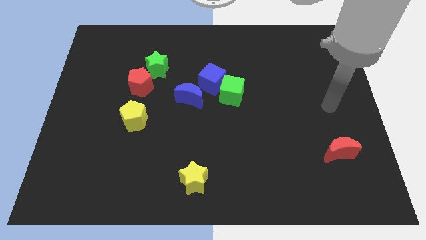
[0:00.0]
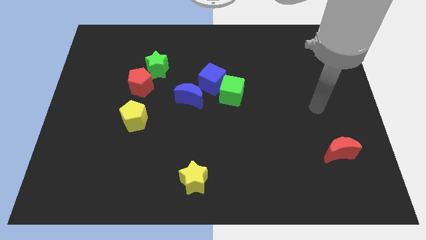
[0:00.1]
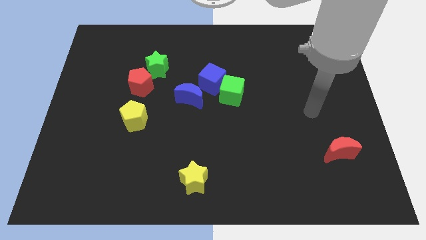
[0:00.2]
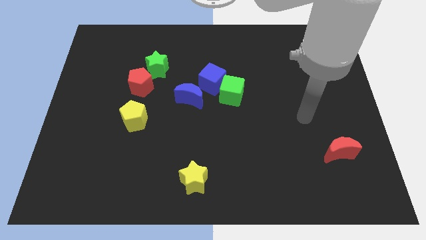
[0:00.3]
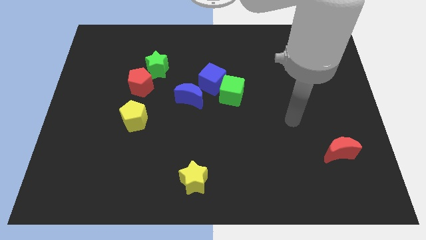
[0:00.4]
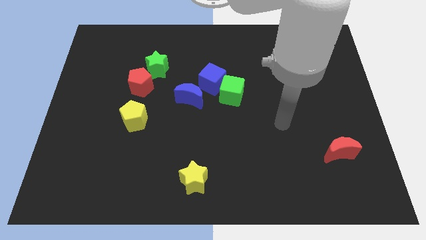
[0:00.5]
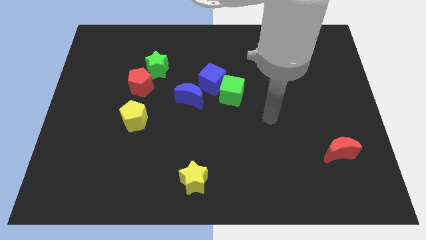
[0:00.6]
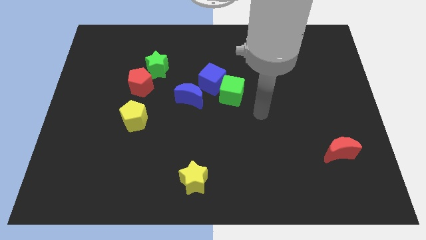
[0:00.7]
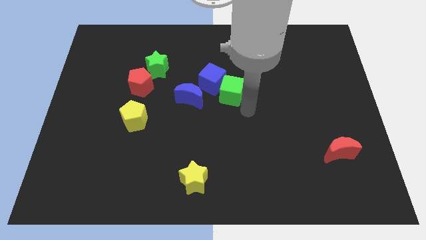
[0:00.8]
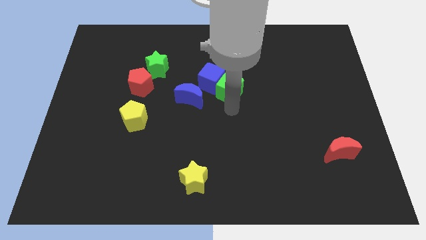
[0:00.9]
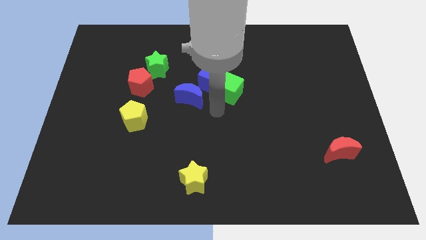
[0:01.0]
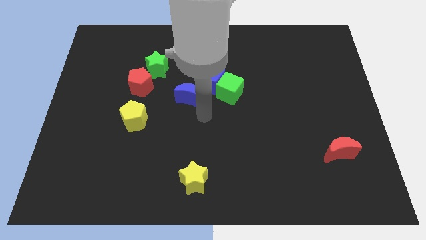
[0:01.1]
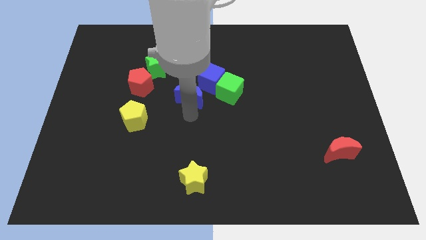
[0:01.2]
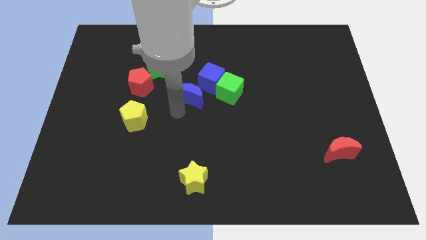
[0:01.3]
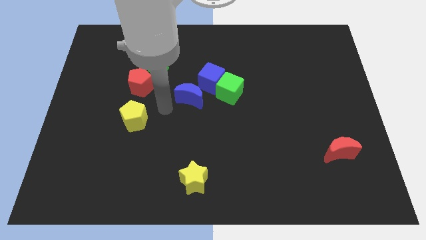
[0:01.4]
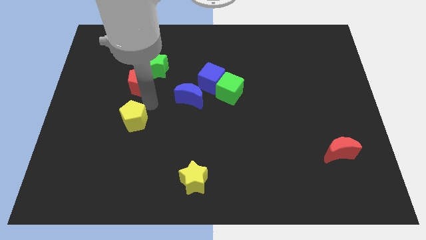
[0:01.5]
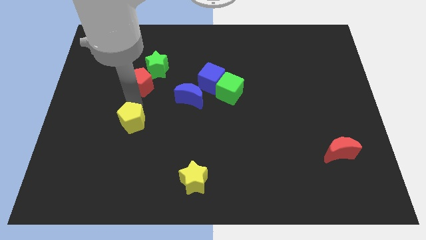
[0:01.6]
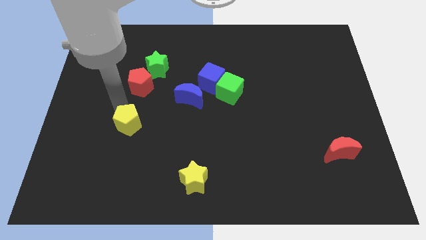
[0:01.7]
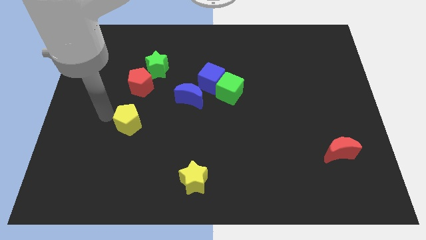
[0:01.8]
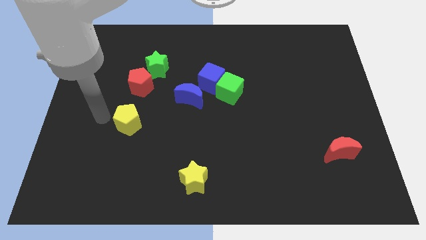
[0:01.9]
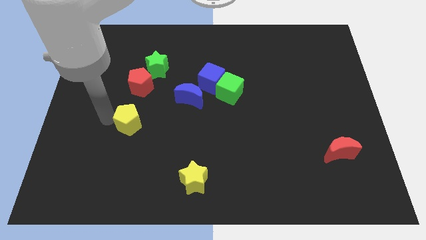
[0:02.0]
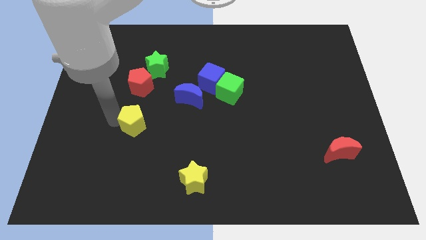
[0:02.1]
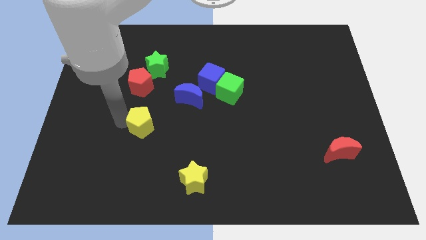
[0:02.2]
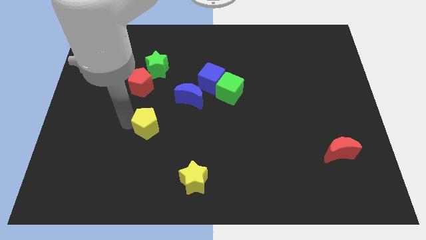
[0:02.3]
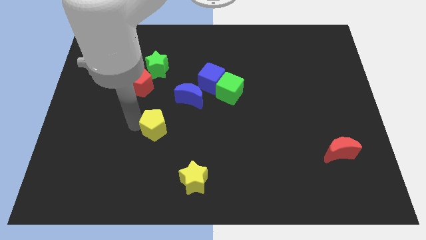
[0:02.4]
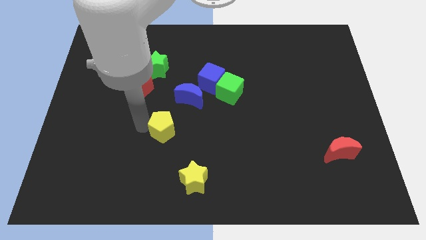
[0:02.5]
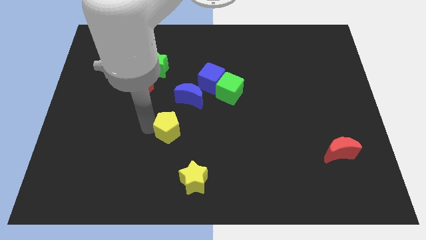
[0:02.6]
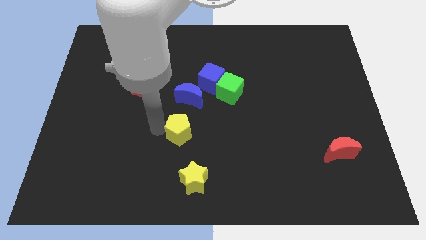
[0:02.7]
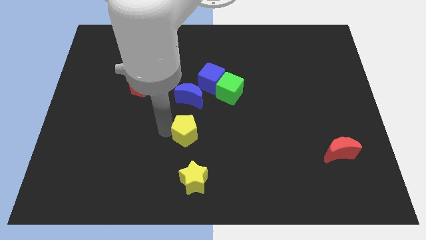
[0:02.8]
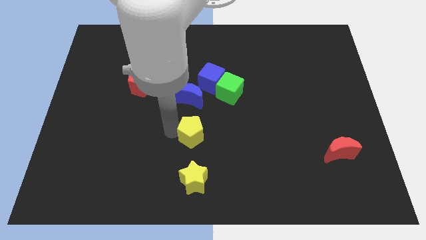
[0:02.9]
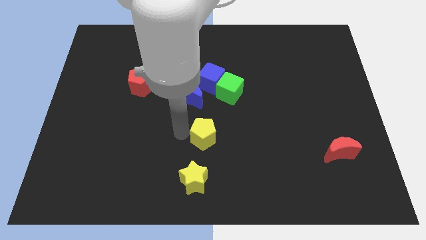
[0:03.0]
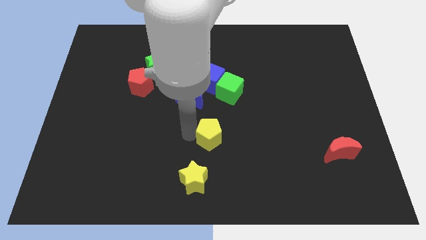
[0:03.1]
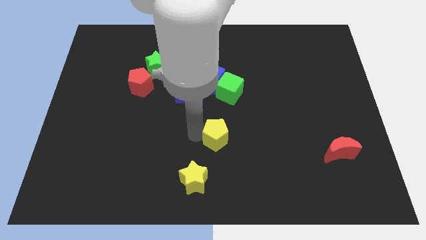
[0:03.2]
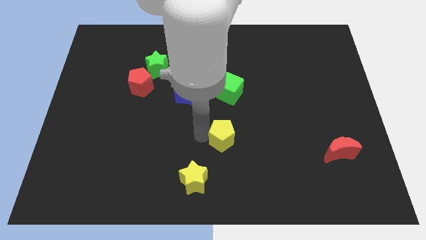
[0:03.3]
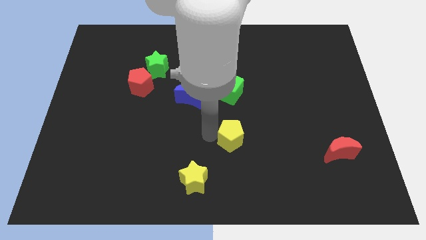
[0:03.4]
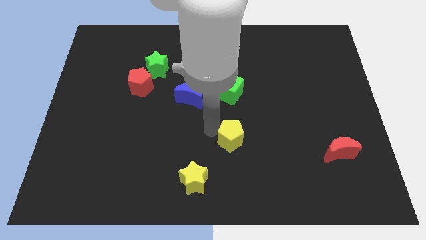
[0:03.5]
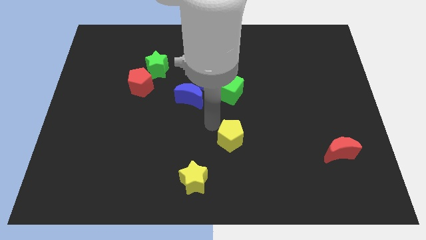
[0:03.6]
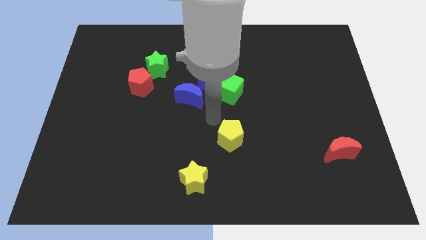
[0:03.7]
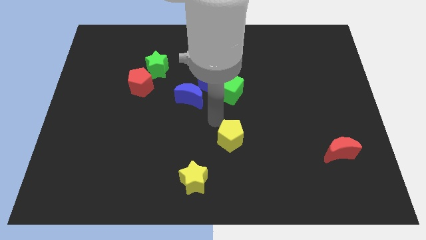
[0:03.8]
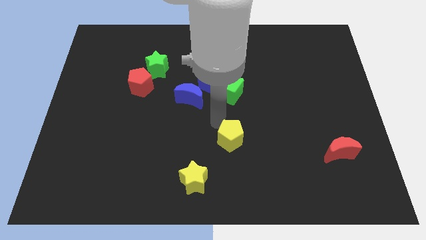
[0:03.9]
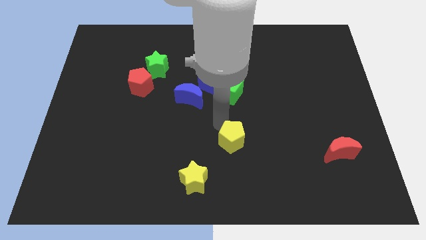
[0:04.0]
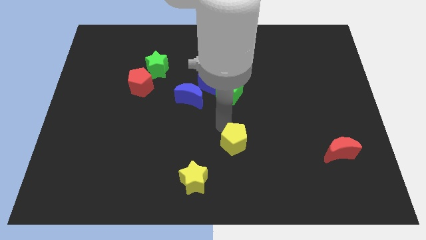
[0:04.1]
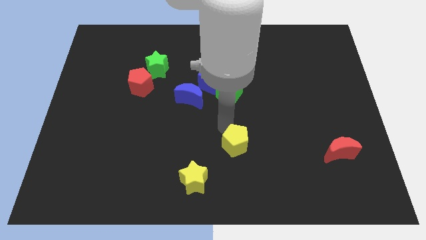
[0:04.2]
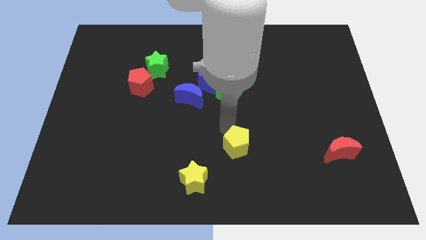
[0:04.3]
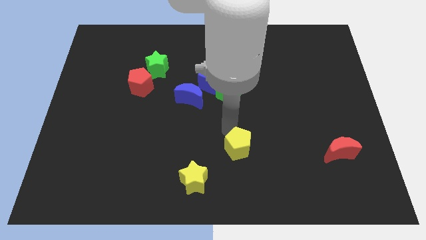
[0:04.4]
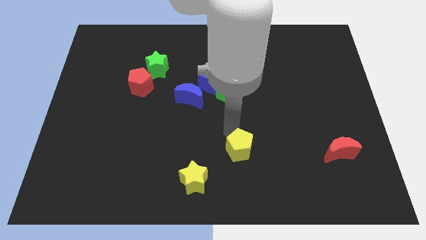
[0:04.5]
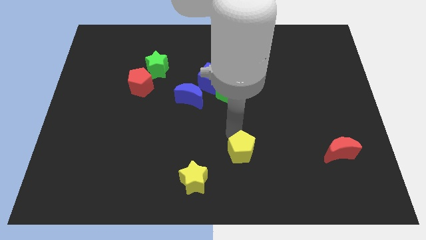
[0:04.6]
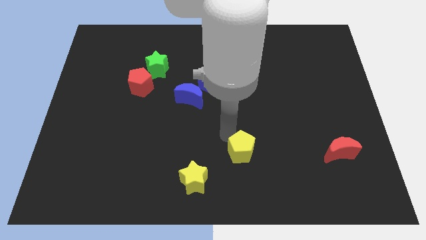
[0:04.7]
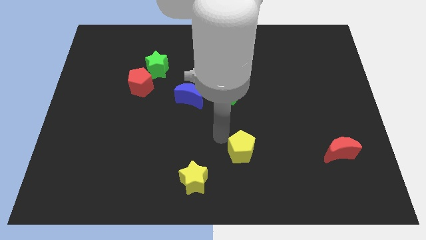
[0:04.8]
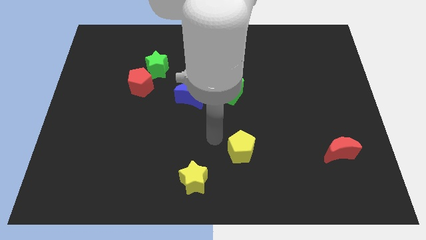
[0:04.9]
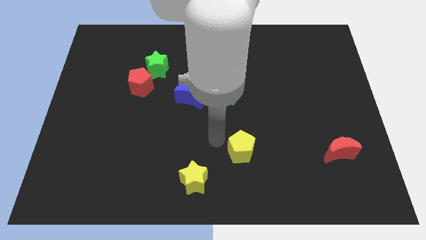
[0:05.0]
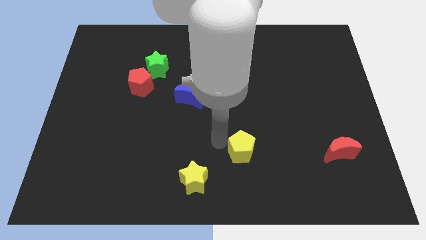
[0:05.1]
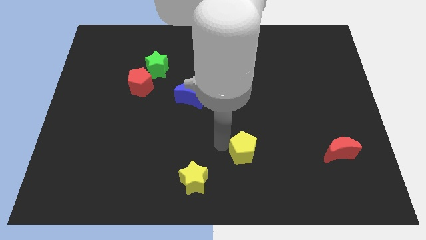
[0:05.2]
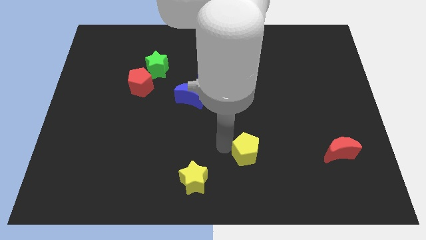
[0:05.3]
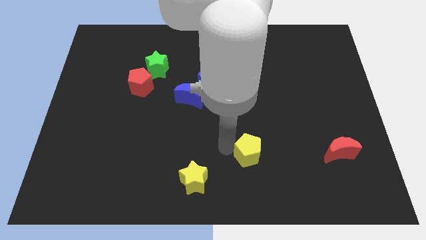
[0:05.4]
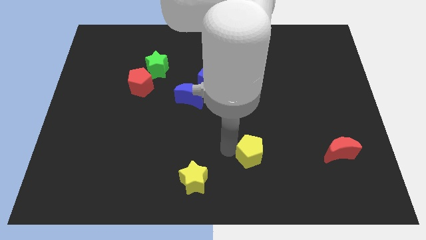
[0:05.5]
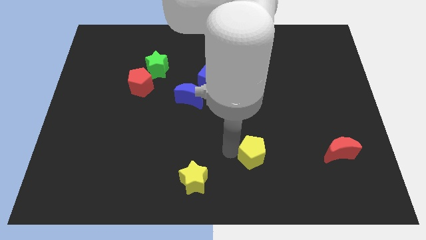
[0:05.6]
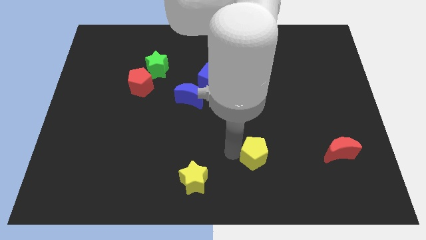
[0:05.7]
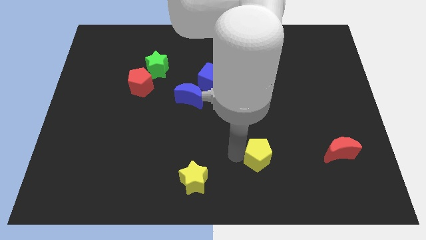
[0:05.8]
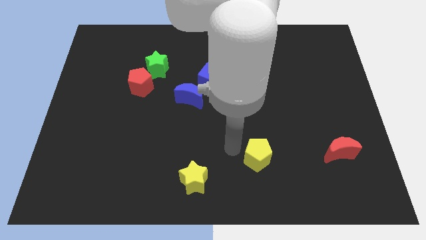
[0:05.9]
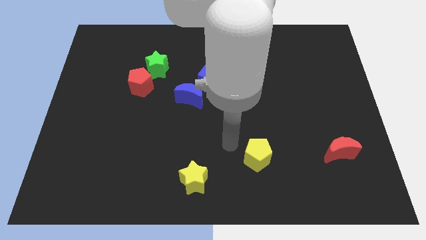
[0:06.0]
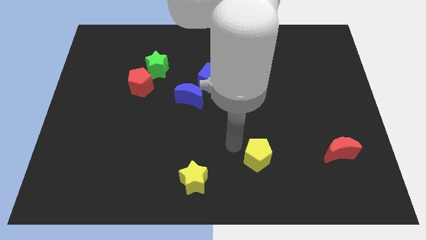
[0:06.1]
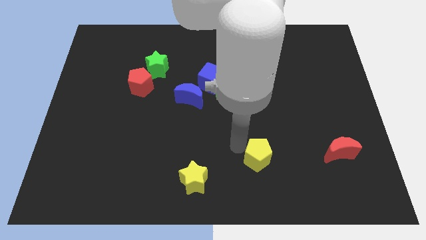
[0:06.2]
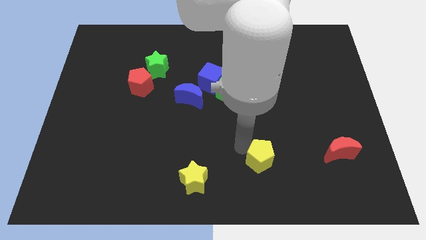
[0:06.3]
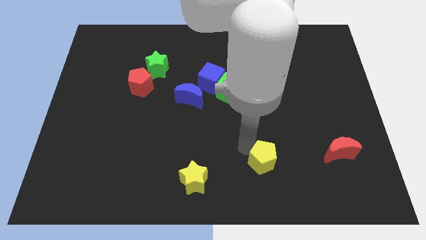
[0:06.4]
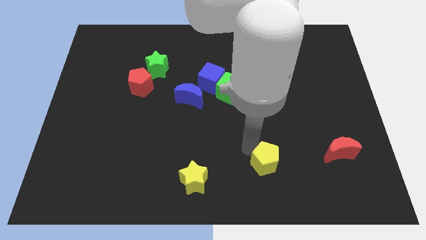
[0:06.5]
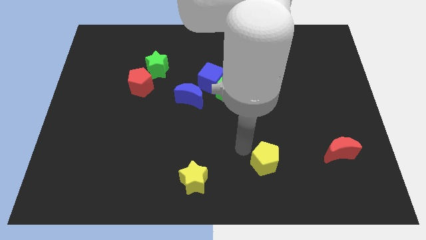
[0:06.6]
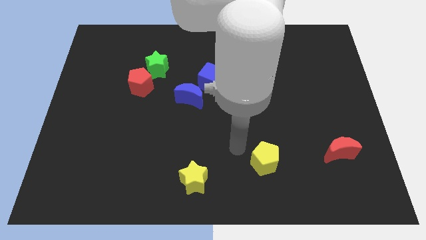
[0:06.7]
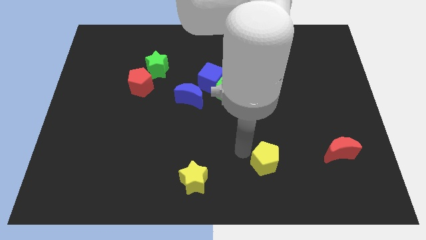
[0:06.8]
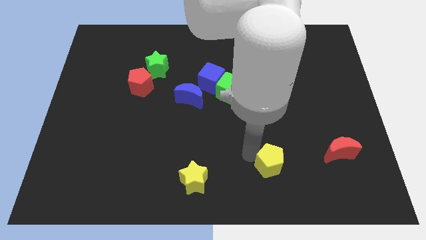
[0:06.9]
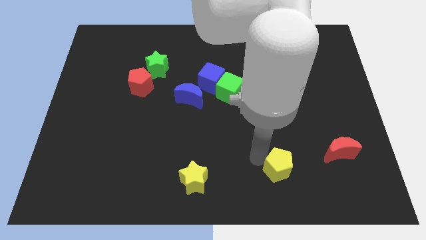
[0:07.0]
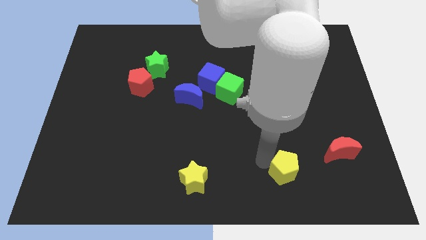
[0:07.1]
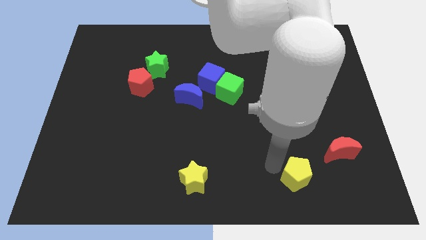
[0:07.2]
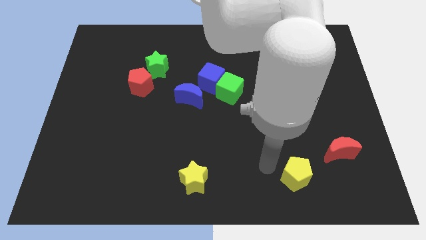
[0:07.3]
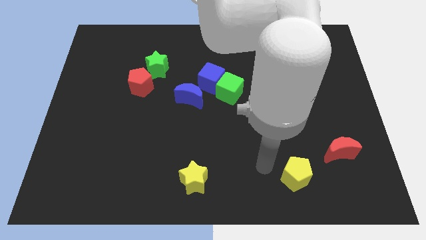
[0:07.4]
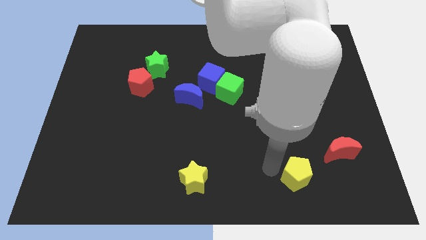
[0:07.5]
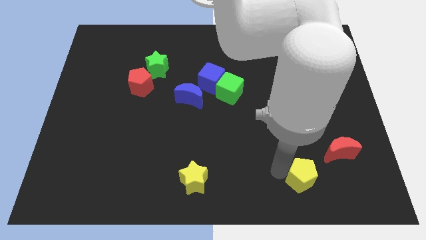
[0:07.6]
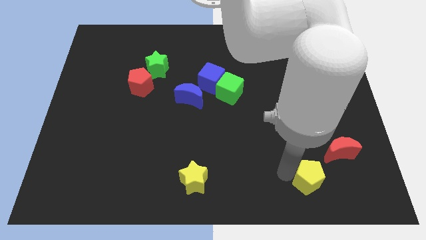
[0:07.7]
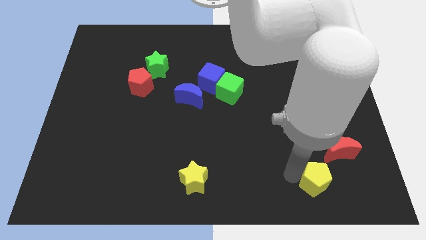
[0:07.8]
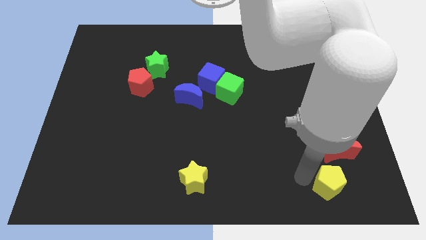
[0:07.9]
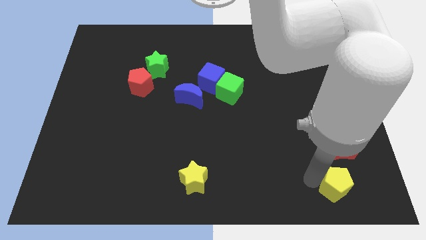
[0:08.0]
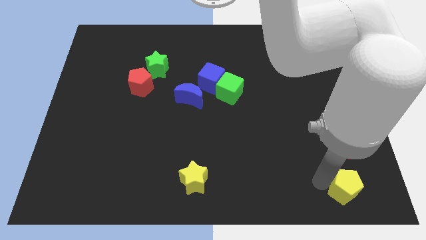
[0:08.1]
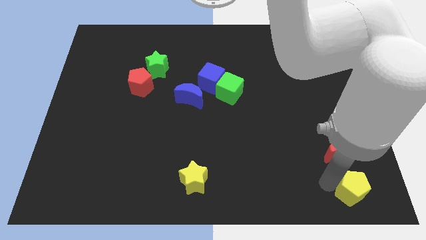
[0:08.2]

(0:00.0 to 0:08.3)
put the yellow pentagon to the bottom right of the board
